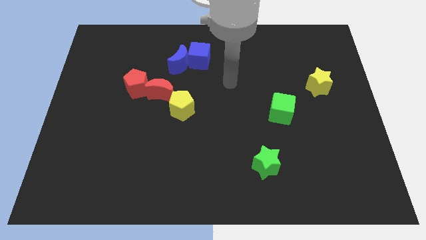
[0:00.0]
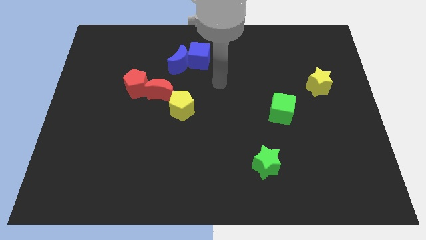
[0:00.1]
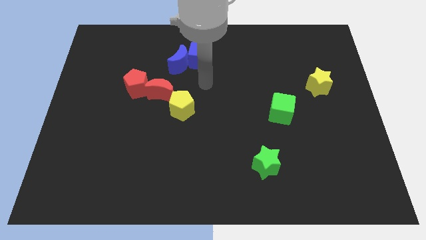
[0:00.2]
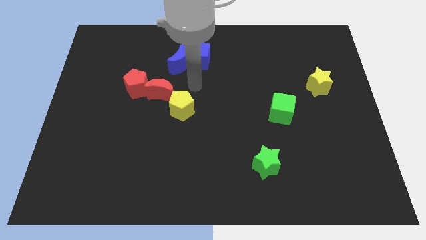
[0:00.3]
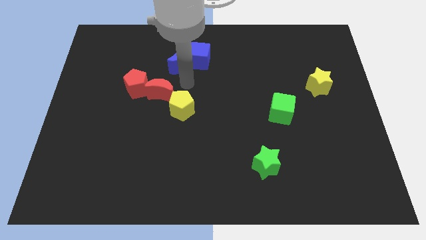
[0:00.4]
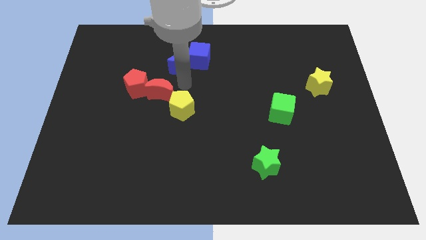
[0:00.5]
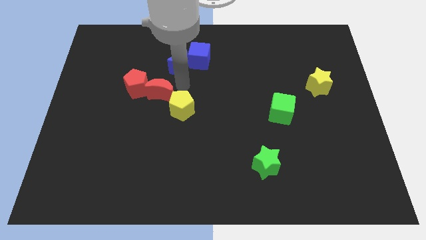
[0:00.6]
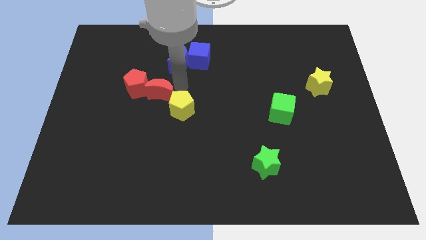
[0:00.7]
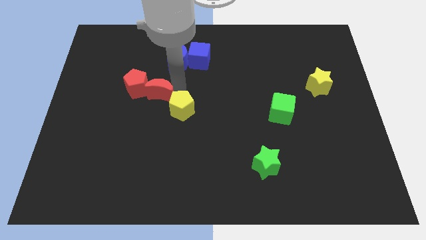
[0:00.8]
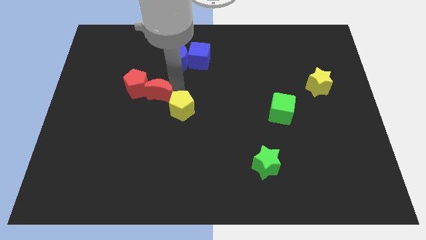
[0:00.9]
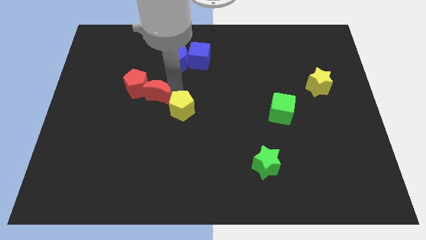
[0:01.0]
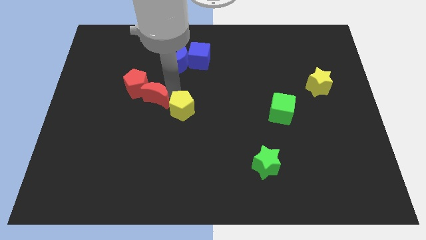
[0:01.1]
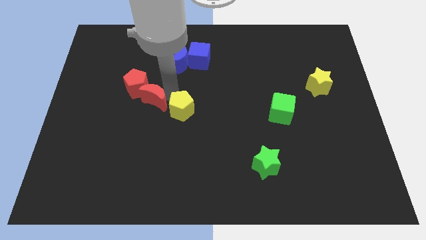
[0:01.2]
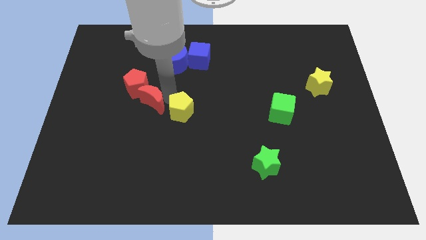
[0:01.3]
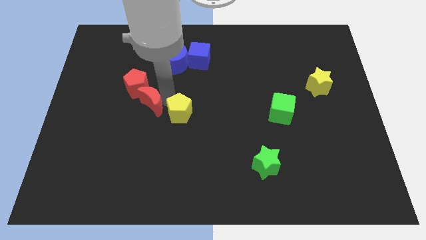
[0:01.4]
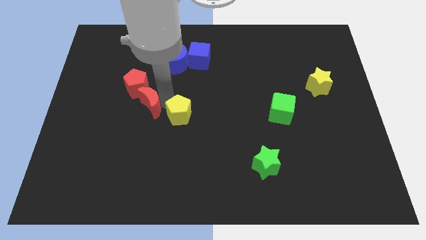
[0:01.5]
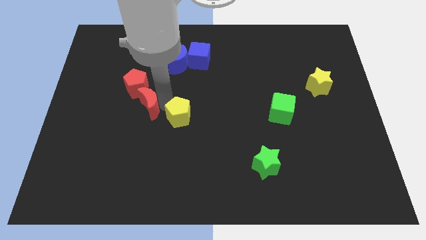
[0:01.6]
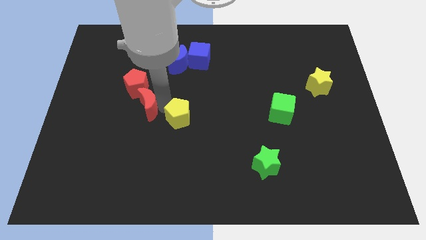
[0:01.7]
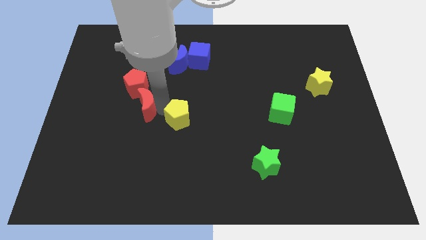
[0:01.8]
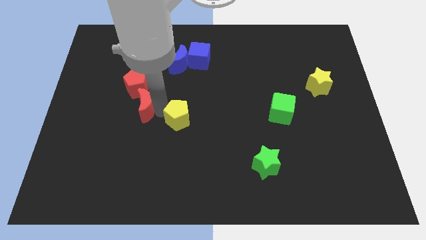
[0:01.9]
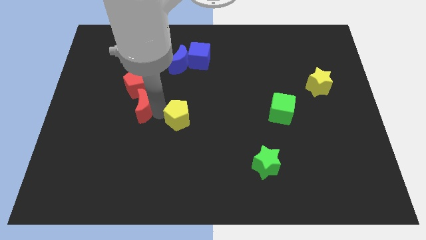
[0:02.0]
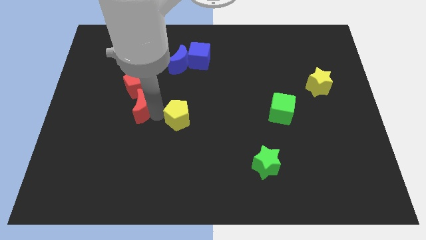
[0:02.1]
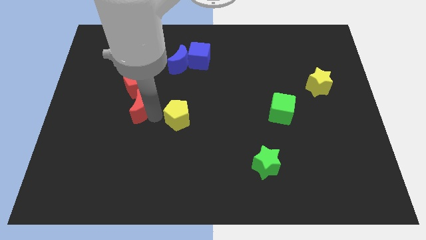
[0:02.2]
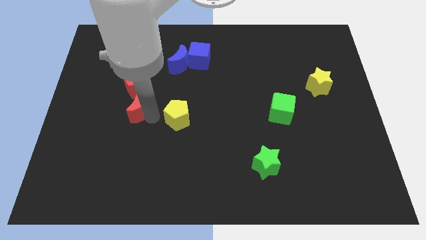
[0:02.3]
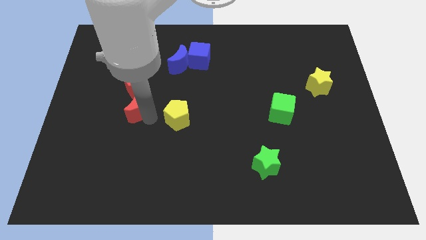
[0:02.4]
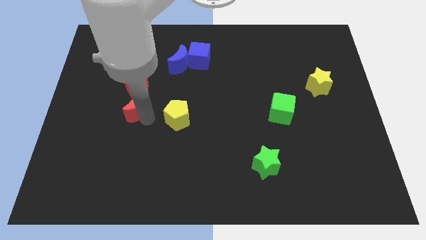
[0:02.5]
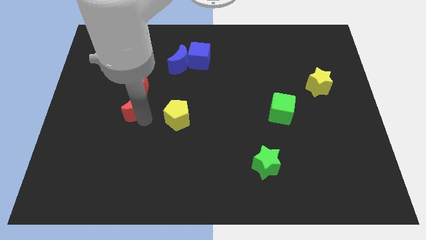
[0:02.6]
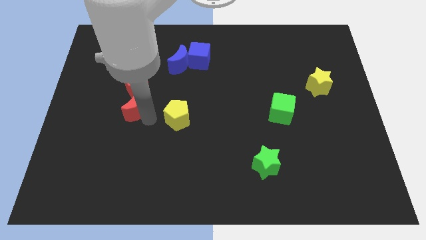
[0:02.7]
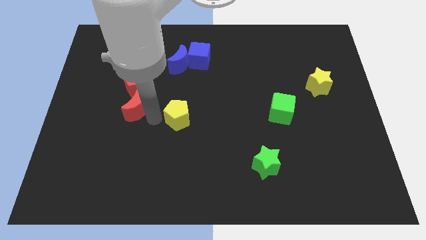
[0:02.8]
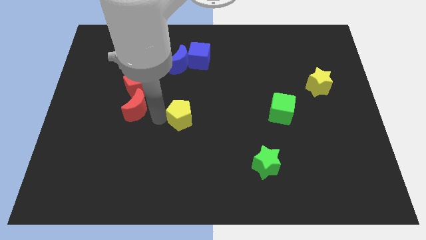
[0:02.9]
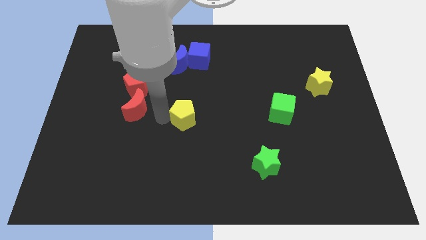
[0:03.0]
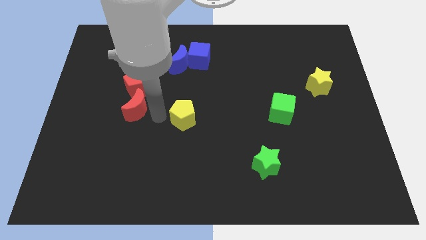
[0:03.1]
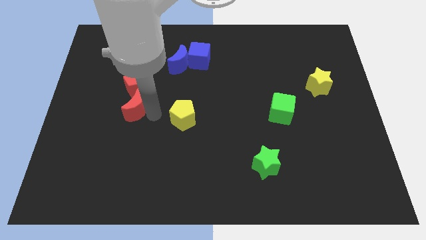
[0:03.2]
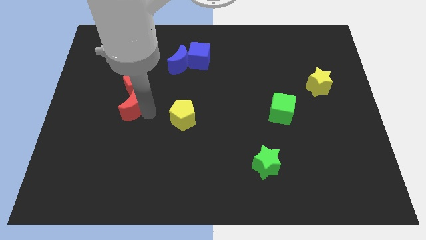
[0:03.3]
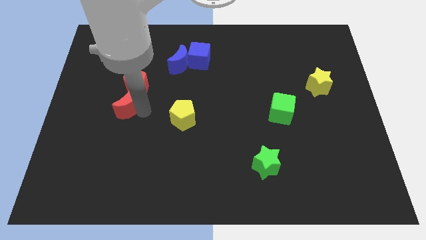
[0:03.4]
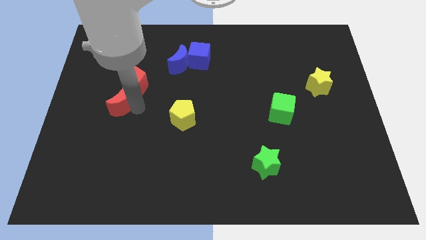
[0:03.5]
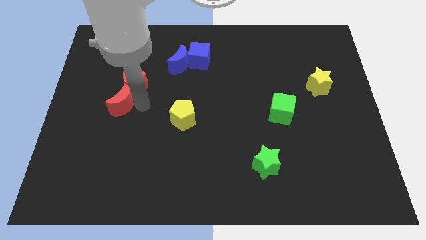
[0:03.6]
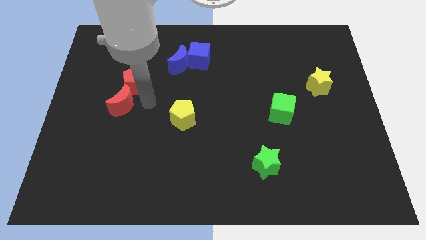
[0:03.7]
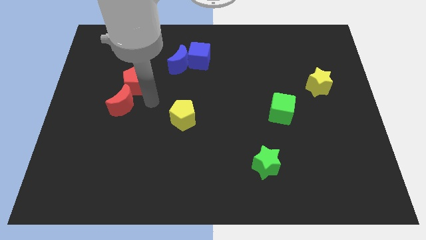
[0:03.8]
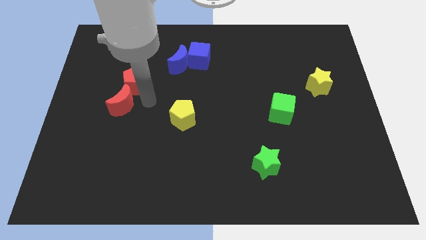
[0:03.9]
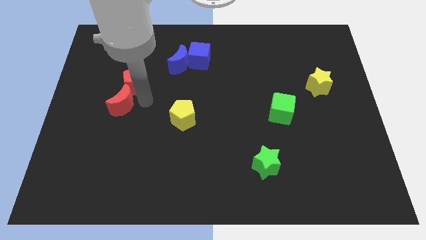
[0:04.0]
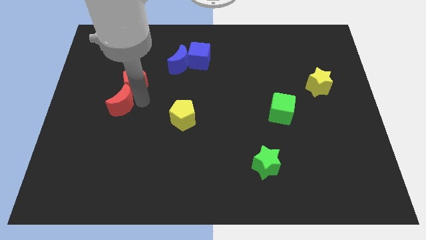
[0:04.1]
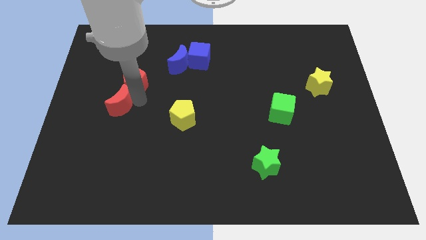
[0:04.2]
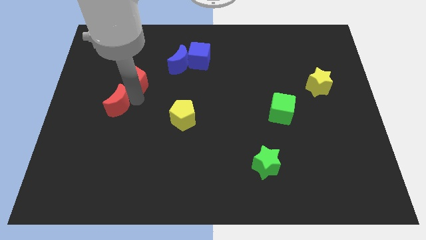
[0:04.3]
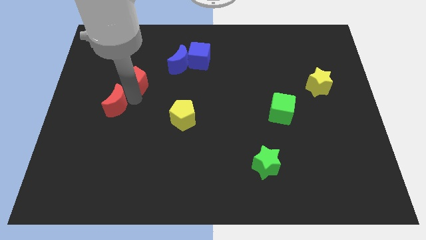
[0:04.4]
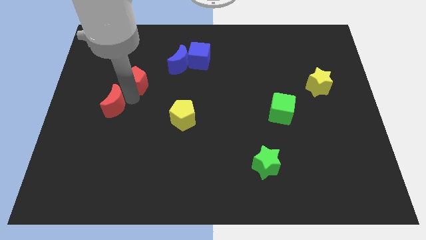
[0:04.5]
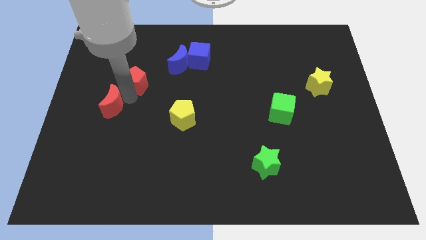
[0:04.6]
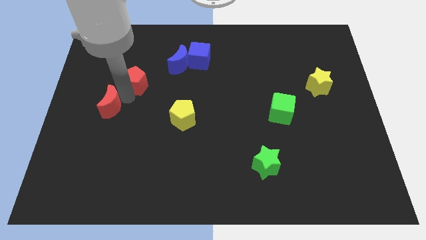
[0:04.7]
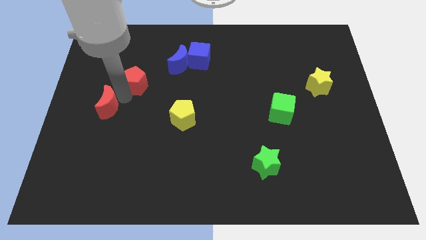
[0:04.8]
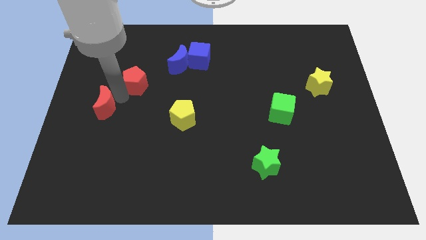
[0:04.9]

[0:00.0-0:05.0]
push the red moon to the left side of the board

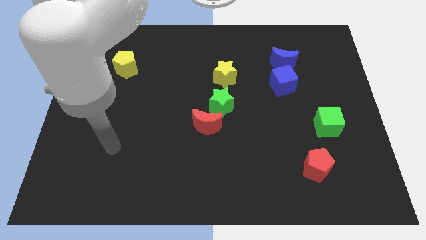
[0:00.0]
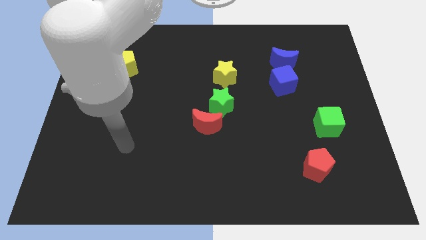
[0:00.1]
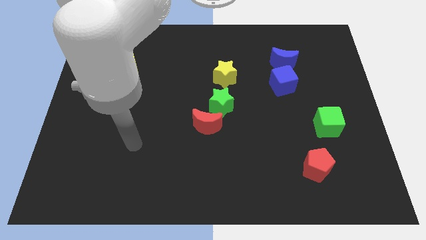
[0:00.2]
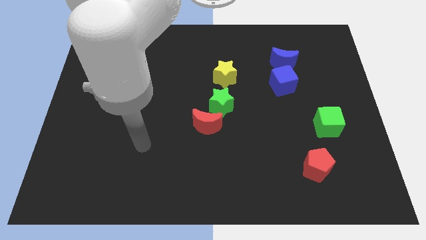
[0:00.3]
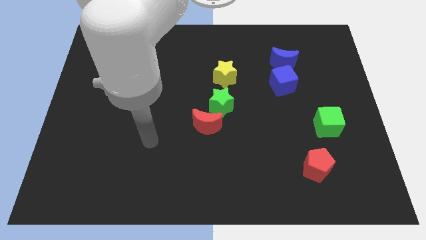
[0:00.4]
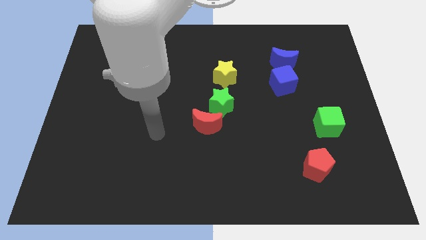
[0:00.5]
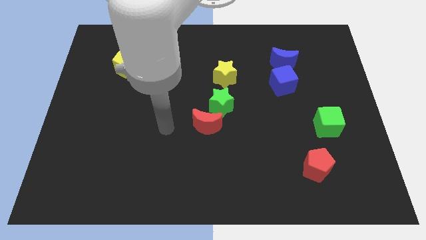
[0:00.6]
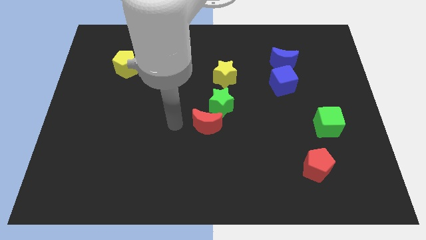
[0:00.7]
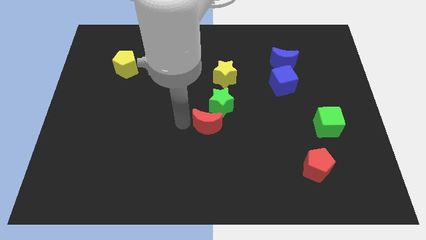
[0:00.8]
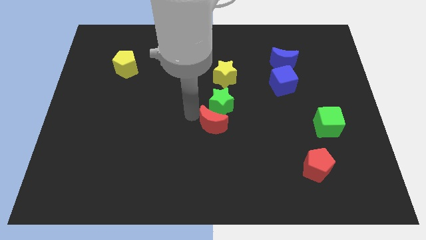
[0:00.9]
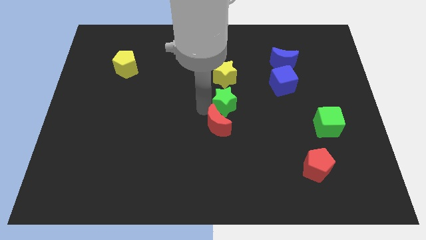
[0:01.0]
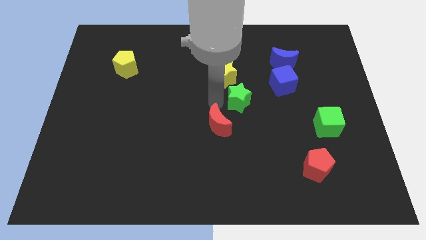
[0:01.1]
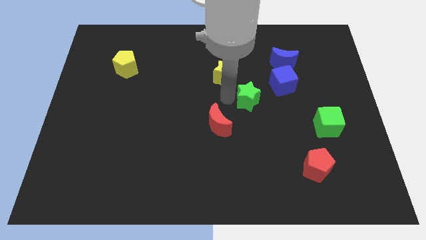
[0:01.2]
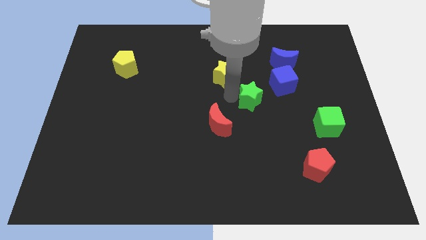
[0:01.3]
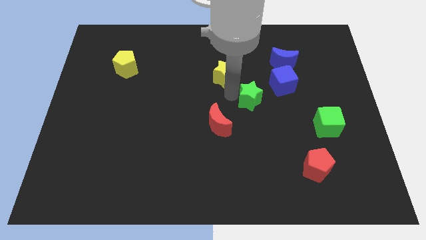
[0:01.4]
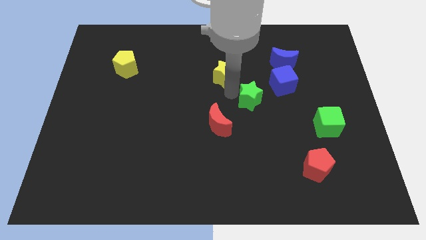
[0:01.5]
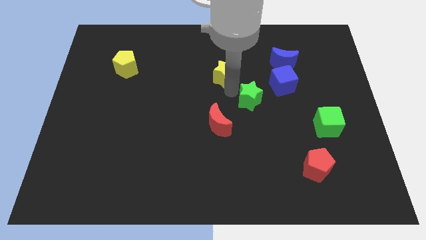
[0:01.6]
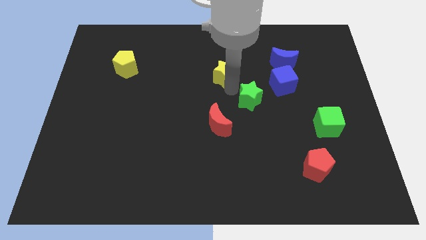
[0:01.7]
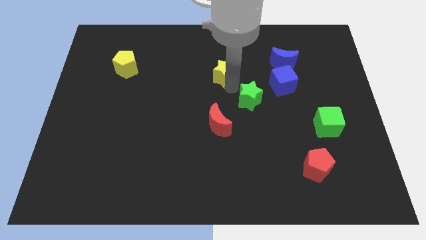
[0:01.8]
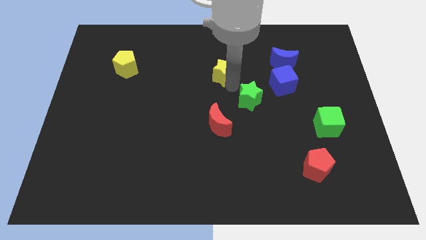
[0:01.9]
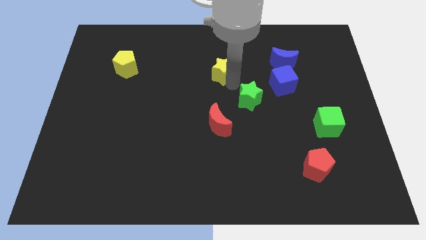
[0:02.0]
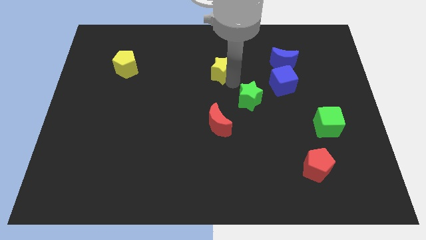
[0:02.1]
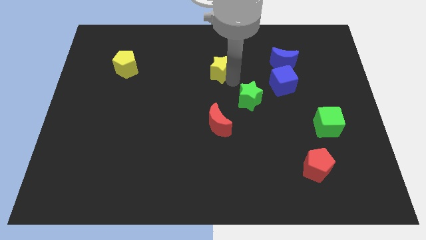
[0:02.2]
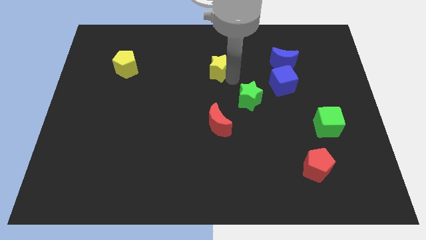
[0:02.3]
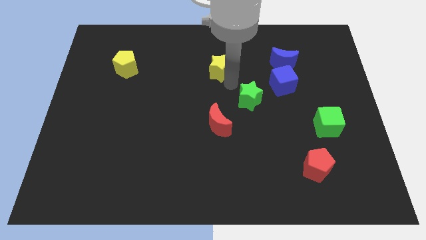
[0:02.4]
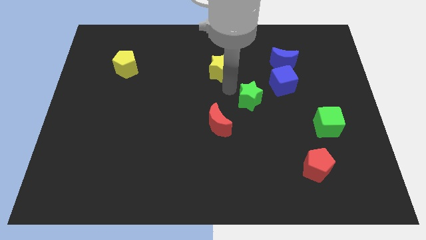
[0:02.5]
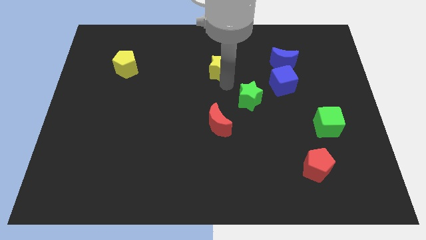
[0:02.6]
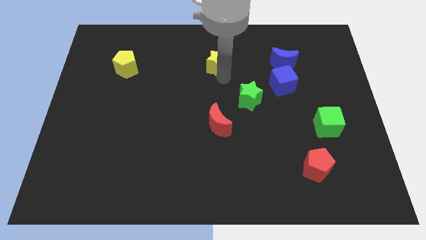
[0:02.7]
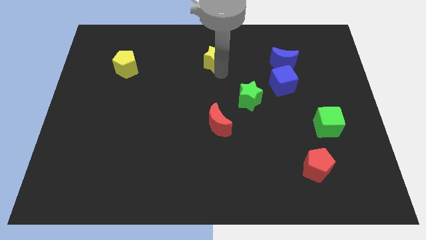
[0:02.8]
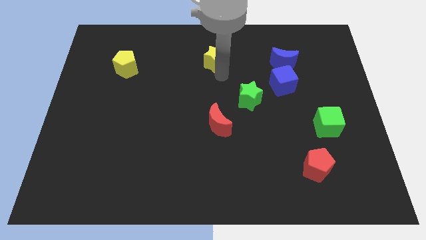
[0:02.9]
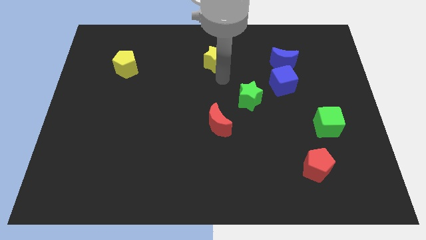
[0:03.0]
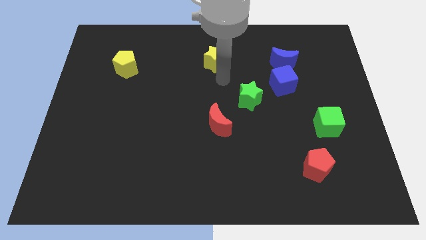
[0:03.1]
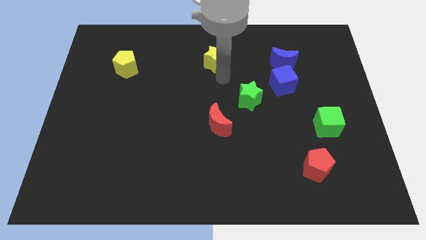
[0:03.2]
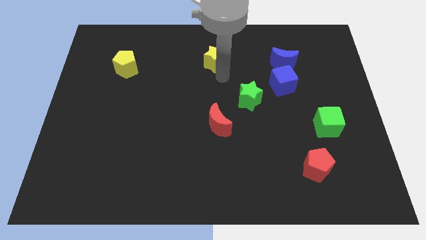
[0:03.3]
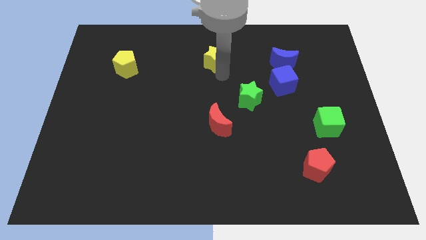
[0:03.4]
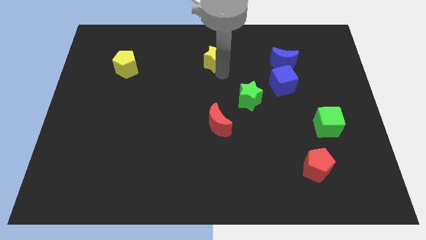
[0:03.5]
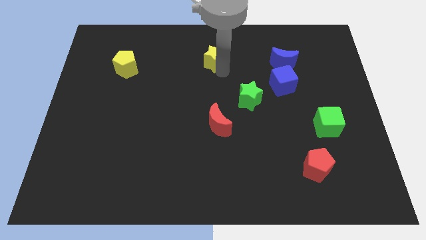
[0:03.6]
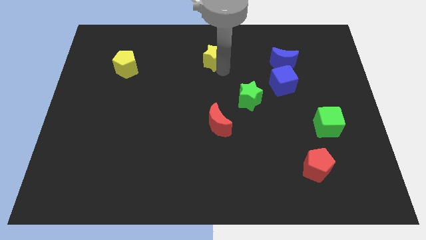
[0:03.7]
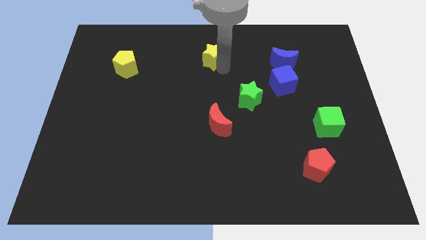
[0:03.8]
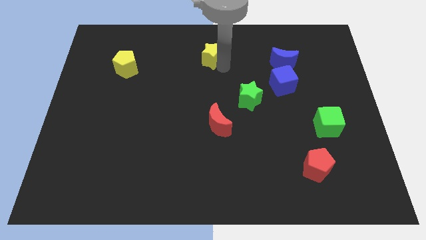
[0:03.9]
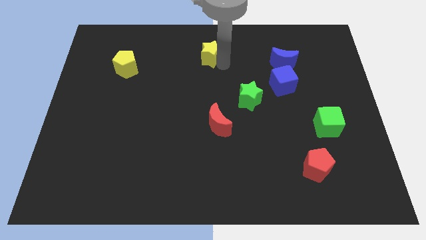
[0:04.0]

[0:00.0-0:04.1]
push the yellow star to the top side
